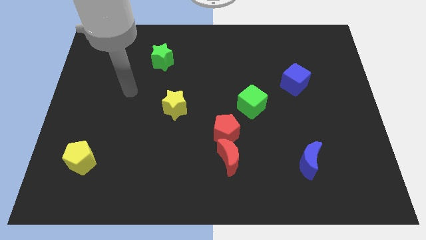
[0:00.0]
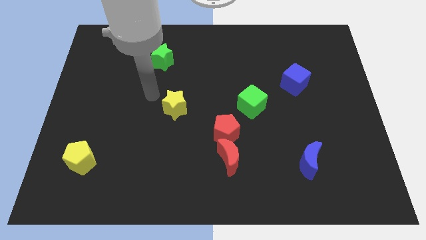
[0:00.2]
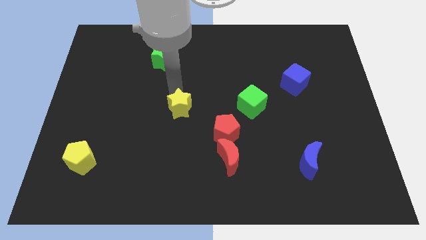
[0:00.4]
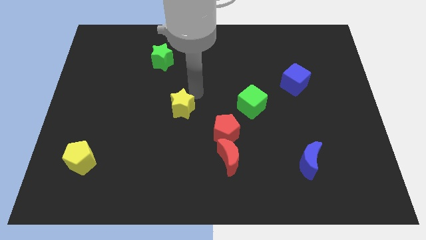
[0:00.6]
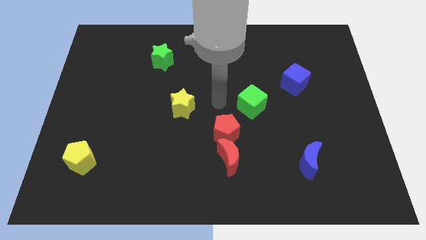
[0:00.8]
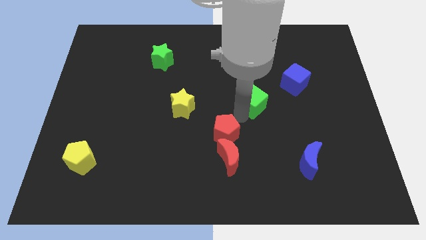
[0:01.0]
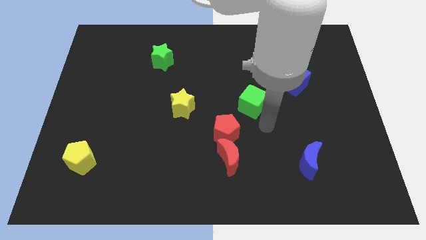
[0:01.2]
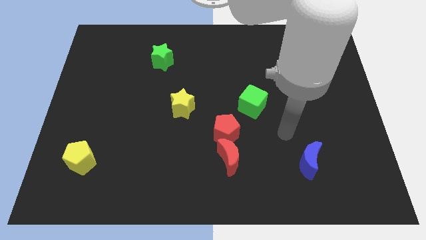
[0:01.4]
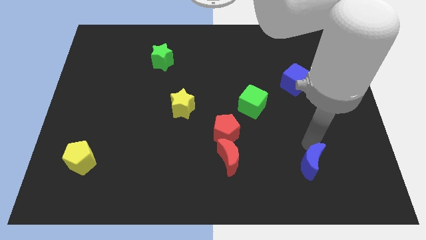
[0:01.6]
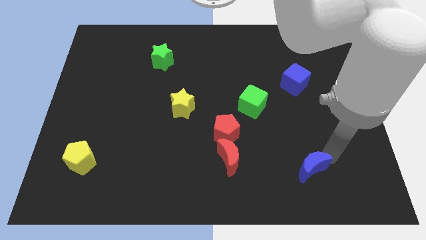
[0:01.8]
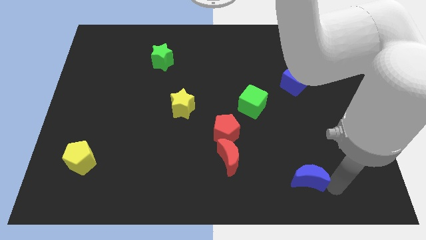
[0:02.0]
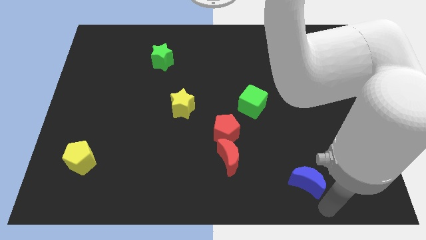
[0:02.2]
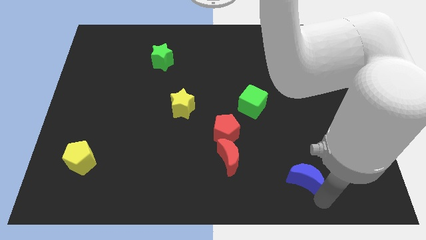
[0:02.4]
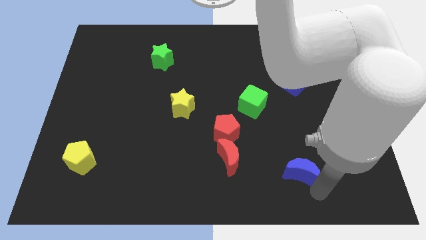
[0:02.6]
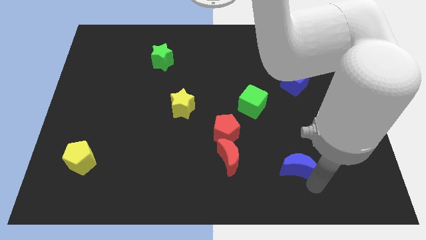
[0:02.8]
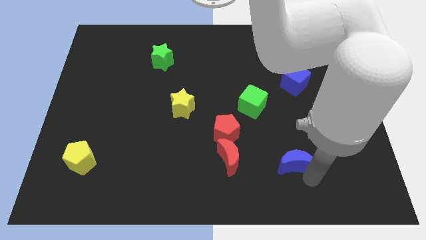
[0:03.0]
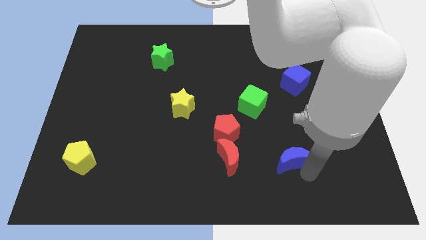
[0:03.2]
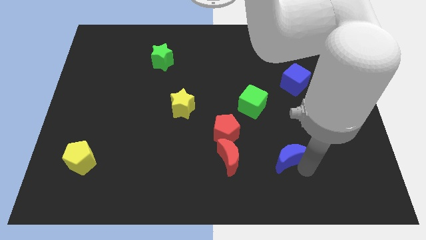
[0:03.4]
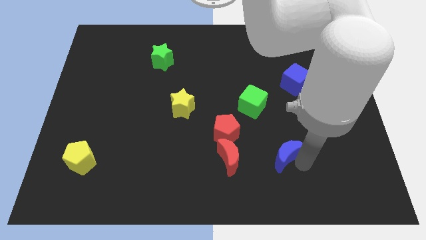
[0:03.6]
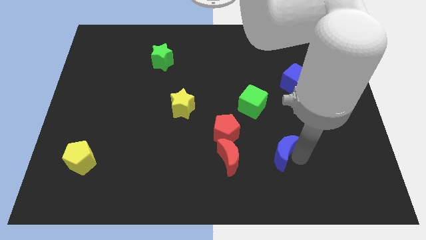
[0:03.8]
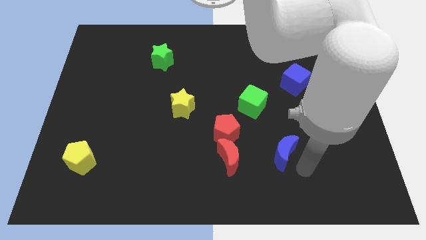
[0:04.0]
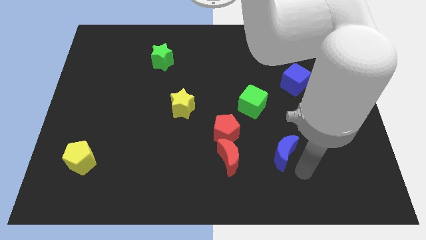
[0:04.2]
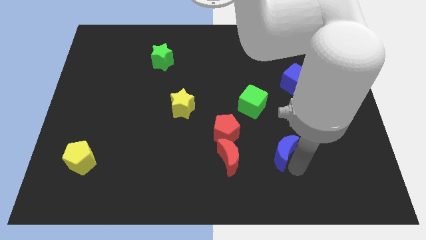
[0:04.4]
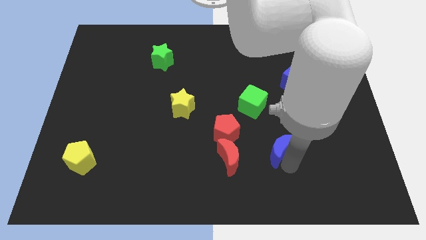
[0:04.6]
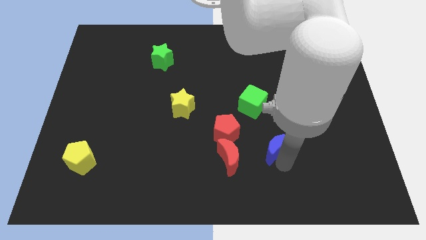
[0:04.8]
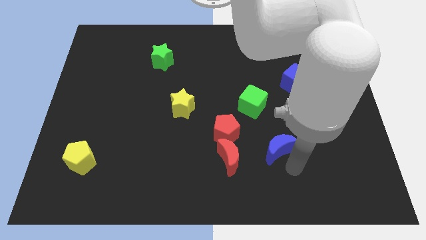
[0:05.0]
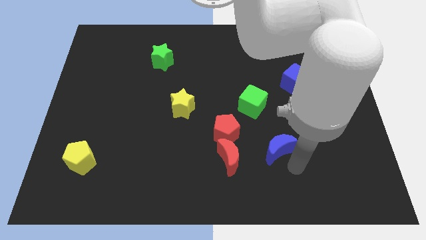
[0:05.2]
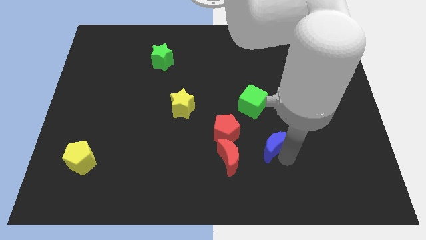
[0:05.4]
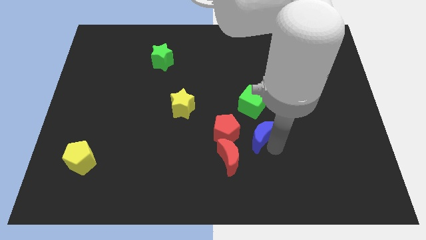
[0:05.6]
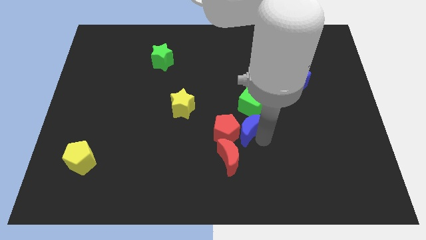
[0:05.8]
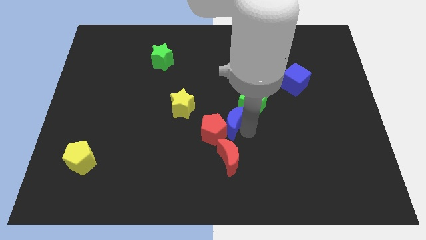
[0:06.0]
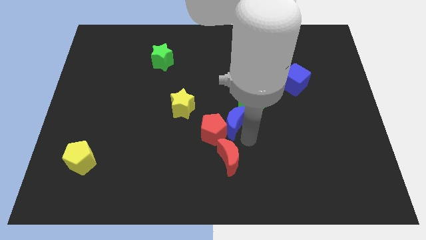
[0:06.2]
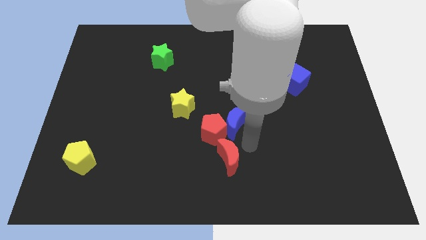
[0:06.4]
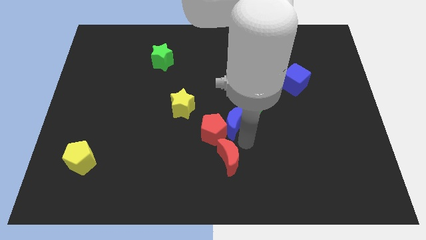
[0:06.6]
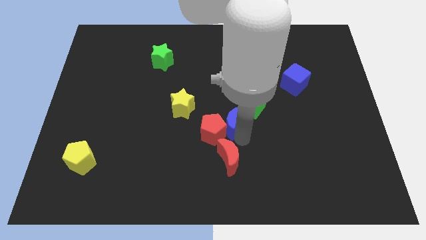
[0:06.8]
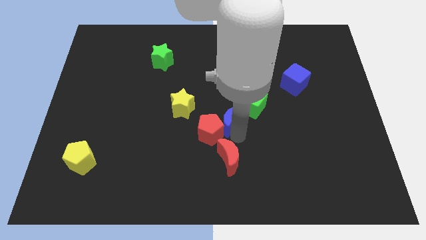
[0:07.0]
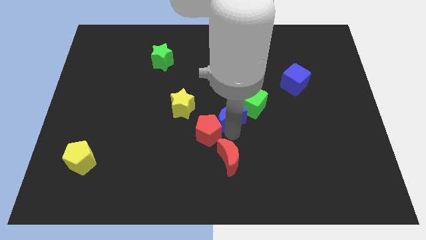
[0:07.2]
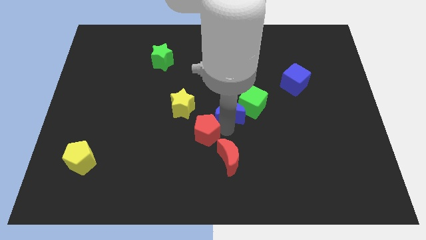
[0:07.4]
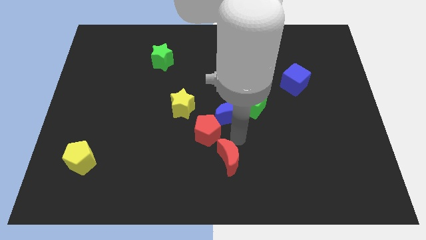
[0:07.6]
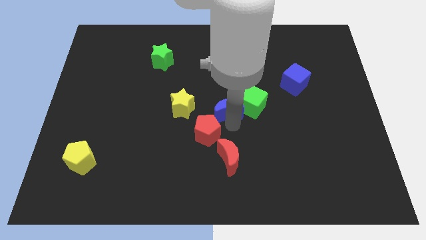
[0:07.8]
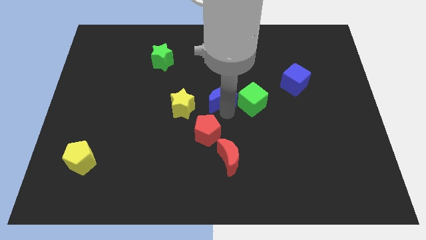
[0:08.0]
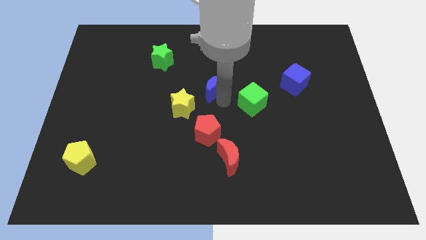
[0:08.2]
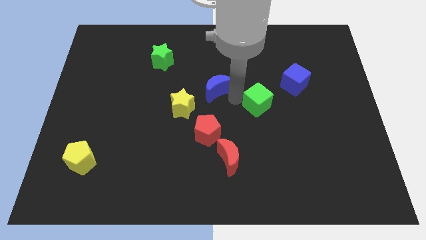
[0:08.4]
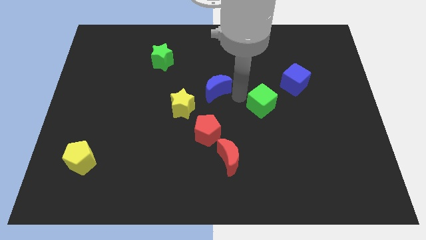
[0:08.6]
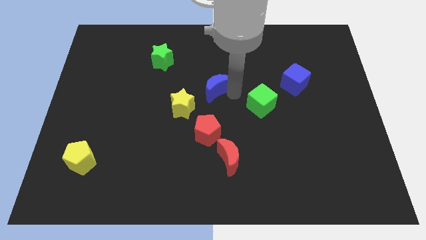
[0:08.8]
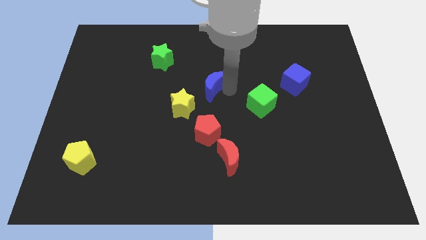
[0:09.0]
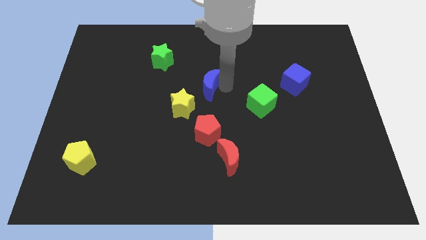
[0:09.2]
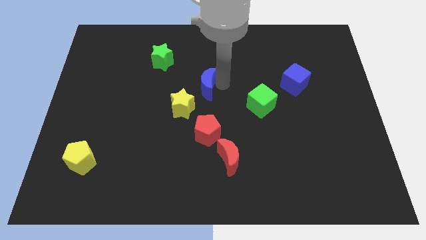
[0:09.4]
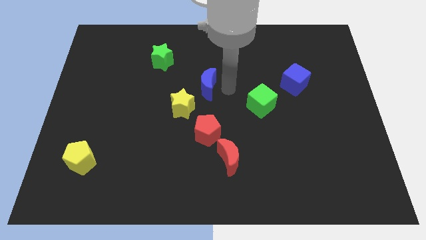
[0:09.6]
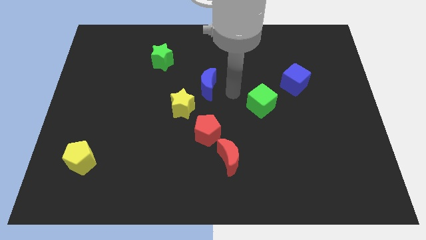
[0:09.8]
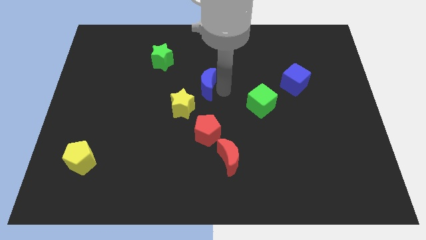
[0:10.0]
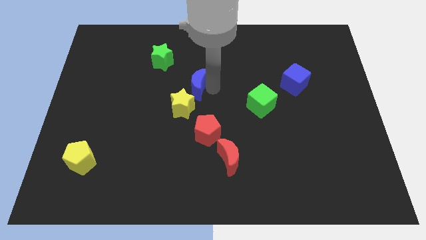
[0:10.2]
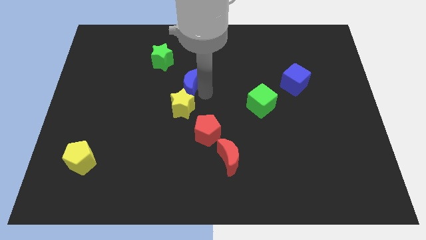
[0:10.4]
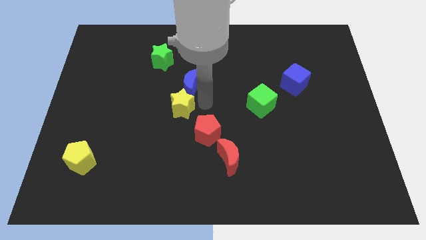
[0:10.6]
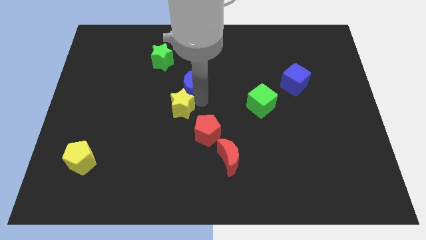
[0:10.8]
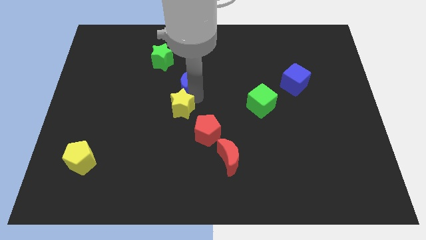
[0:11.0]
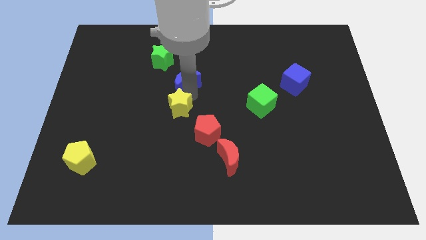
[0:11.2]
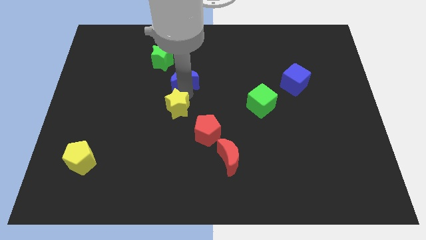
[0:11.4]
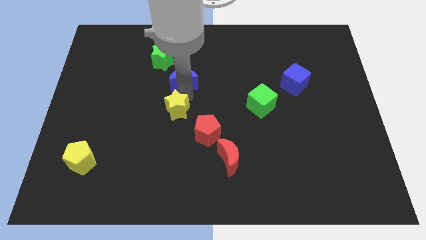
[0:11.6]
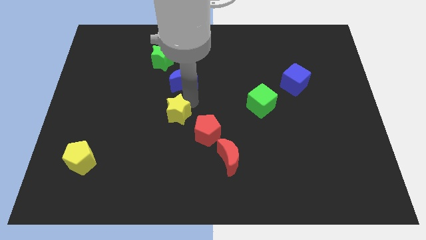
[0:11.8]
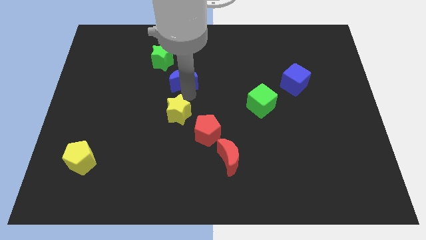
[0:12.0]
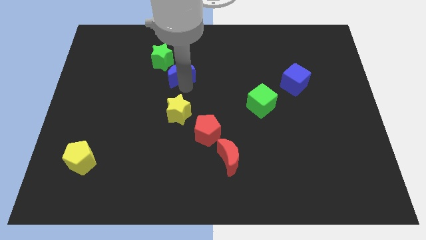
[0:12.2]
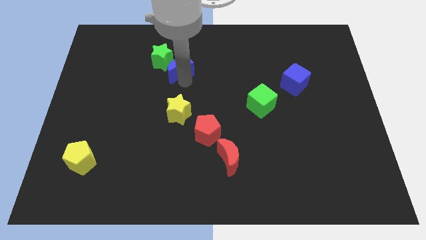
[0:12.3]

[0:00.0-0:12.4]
move the blue moon towards the green star
